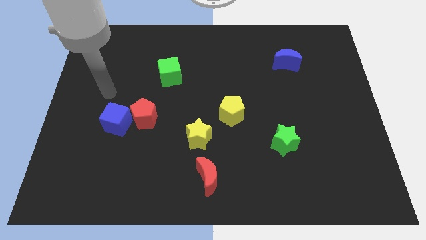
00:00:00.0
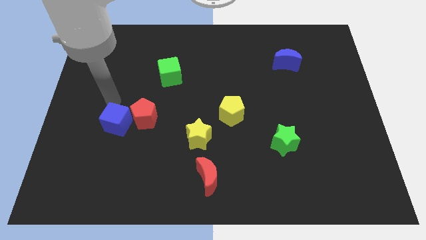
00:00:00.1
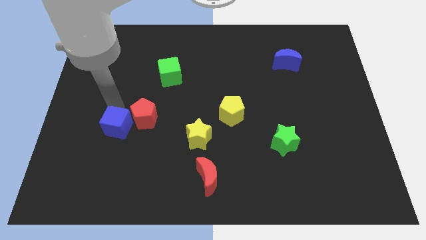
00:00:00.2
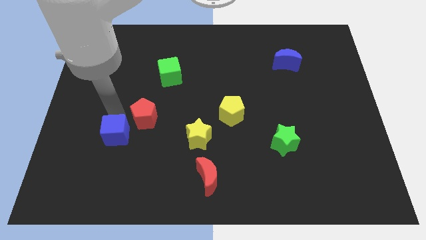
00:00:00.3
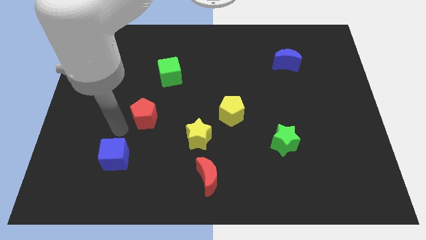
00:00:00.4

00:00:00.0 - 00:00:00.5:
move the red pentagon away from the blue cube

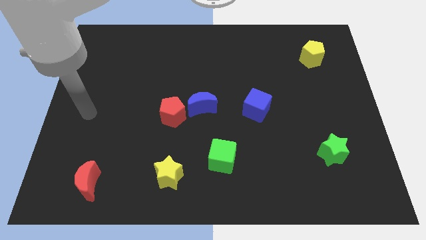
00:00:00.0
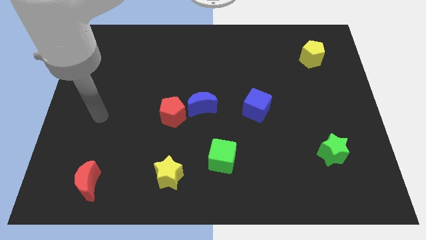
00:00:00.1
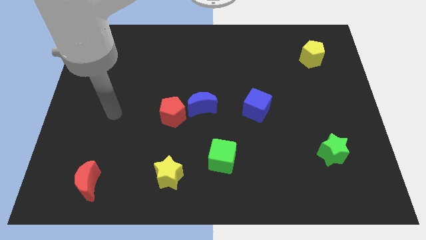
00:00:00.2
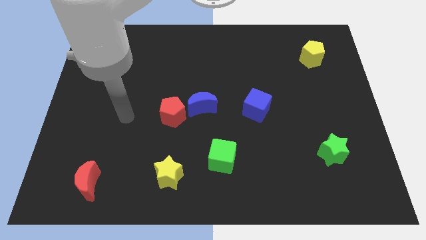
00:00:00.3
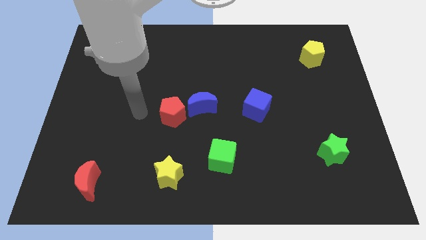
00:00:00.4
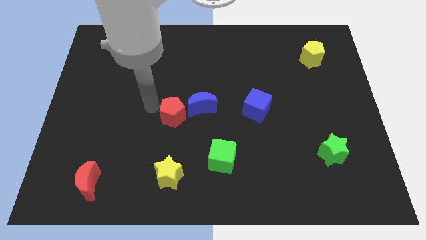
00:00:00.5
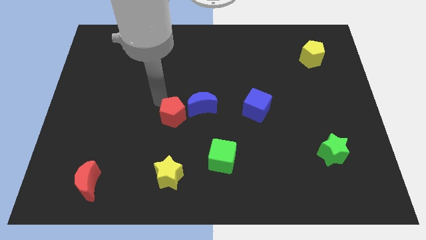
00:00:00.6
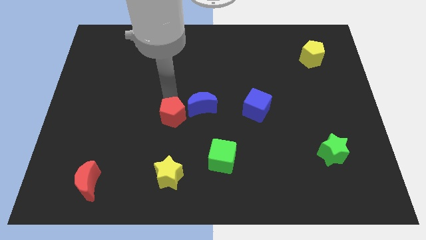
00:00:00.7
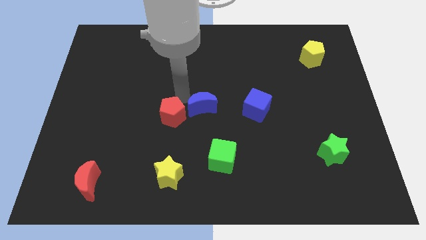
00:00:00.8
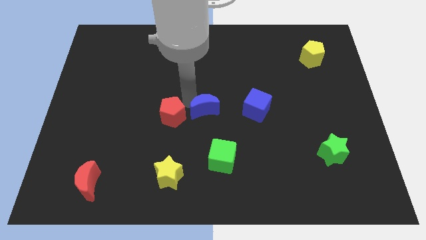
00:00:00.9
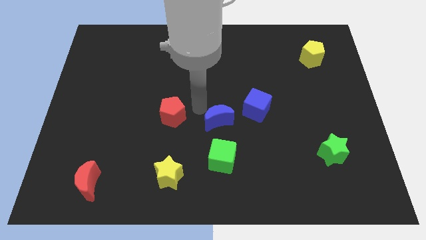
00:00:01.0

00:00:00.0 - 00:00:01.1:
pull the red pentagon apart from the blue moon

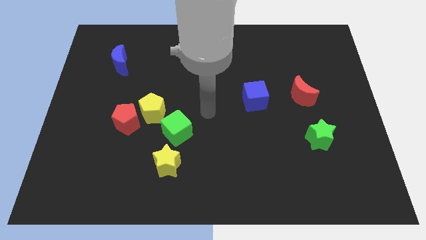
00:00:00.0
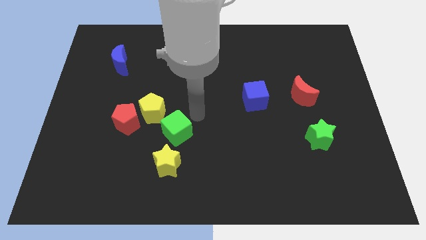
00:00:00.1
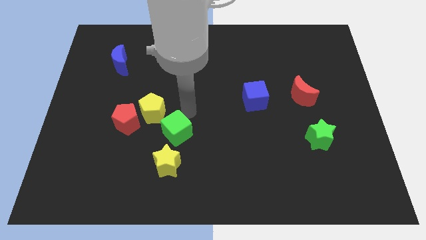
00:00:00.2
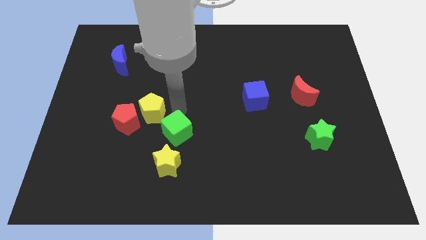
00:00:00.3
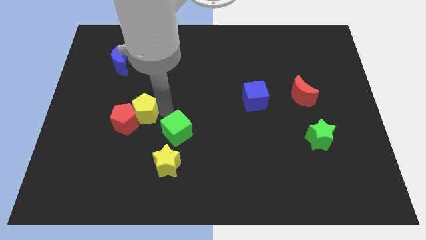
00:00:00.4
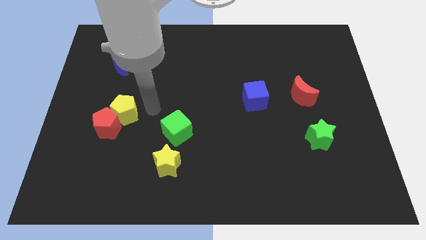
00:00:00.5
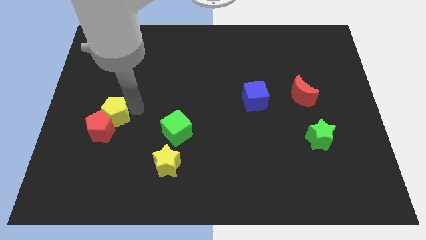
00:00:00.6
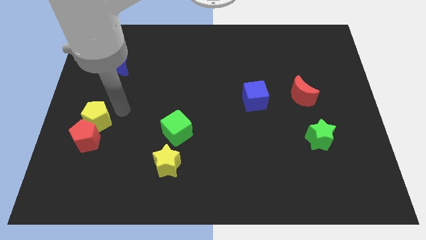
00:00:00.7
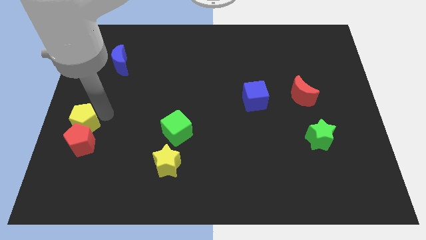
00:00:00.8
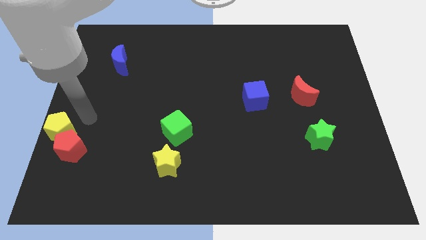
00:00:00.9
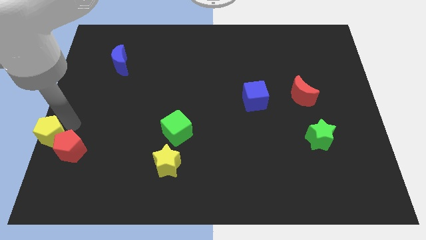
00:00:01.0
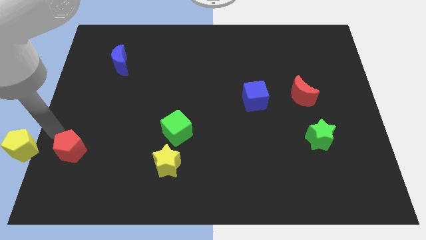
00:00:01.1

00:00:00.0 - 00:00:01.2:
move the red pentagon away from the yellow pentagon

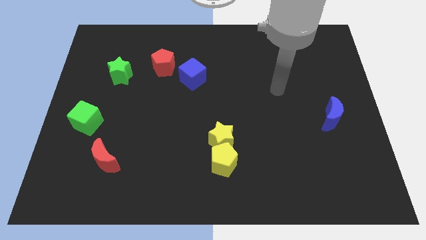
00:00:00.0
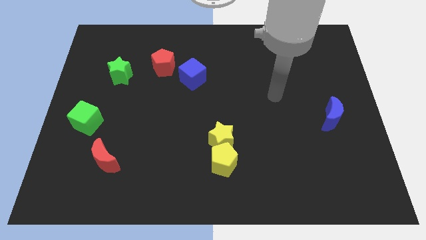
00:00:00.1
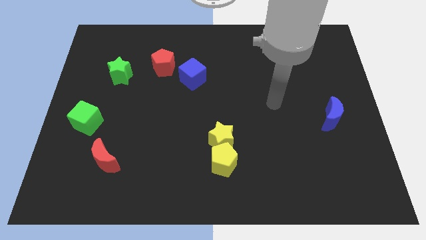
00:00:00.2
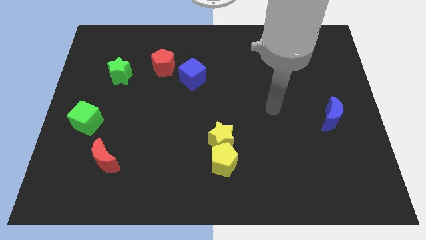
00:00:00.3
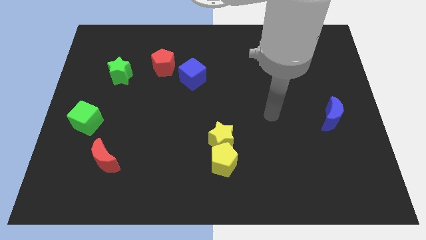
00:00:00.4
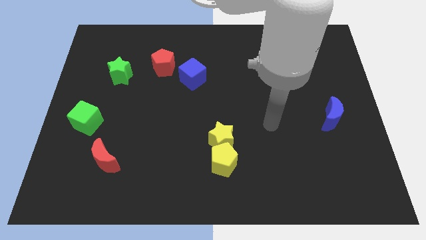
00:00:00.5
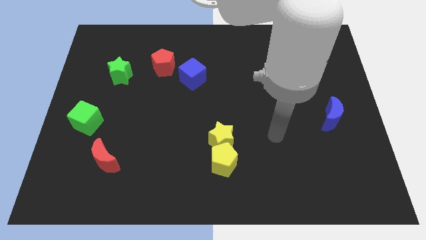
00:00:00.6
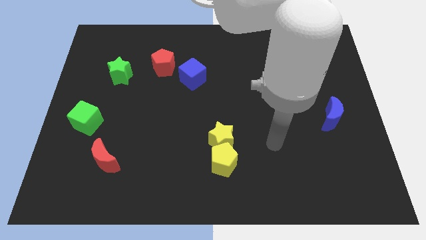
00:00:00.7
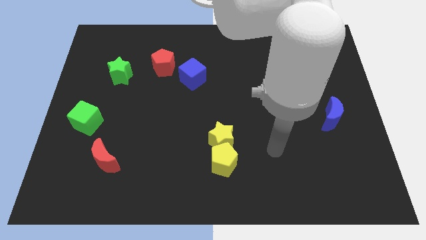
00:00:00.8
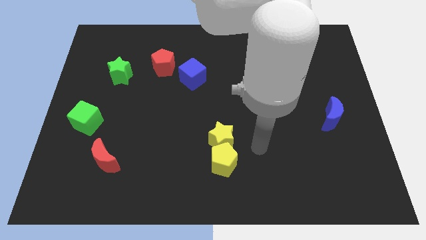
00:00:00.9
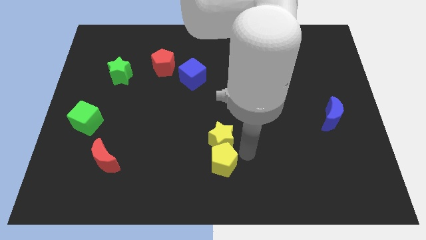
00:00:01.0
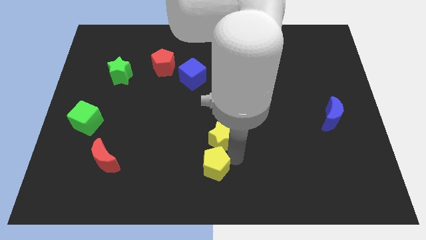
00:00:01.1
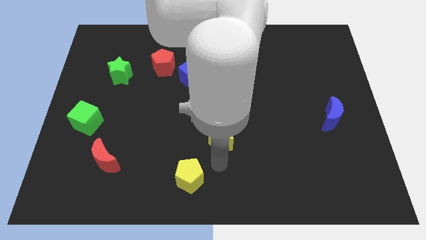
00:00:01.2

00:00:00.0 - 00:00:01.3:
pull the yellow star apart from the yellow pentagon

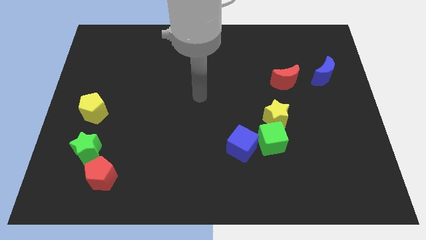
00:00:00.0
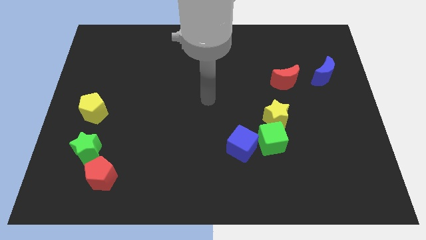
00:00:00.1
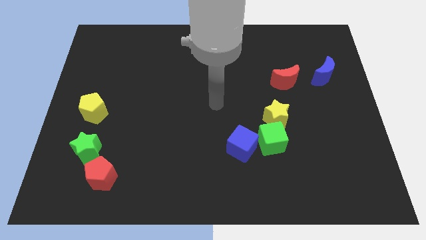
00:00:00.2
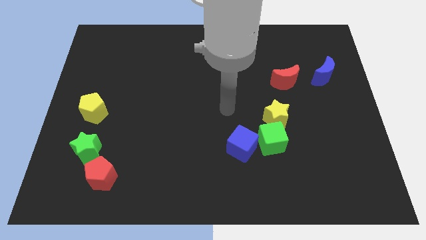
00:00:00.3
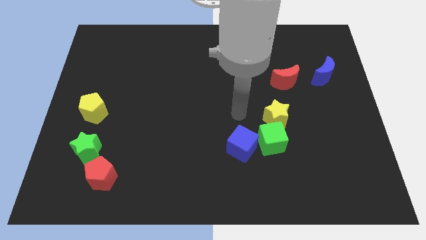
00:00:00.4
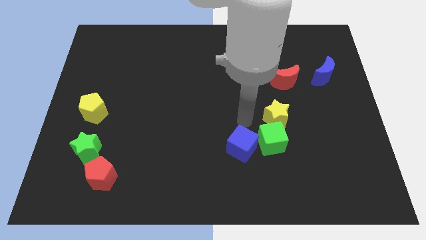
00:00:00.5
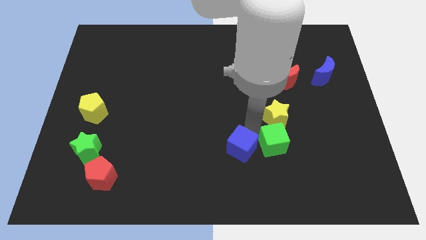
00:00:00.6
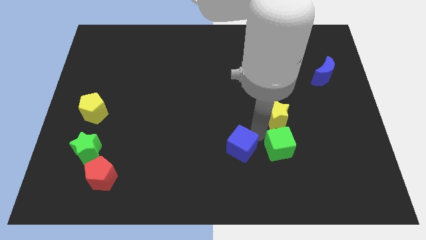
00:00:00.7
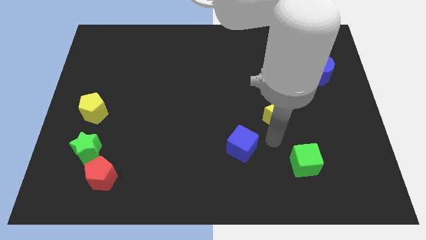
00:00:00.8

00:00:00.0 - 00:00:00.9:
move the yellow star away from the green cube

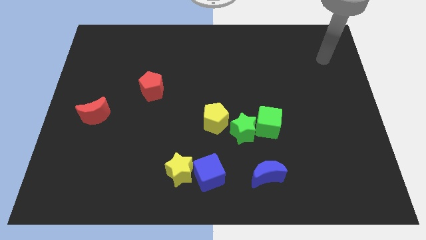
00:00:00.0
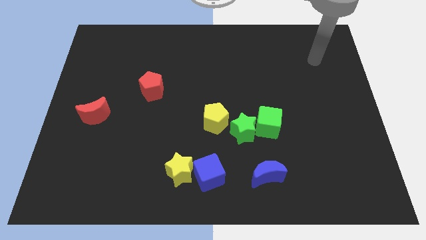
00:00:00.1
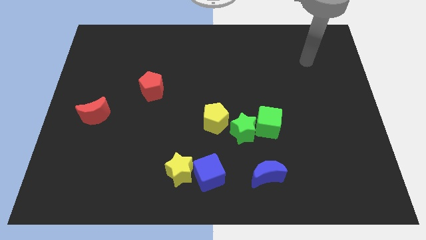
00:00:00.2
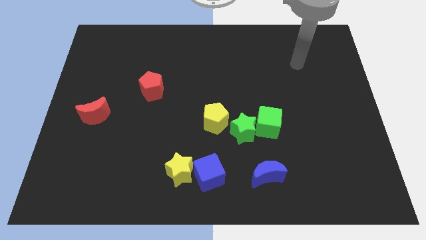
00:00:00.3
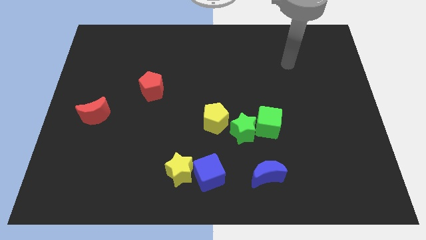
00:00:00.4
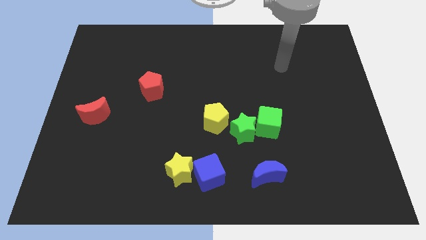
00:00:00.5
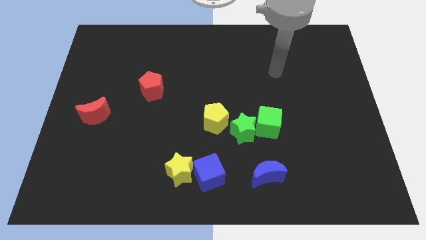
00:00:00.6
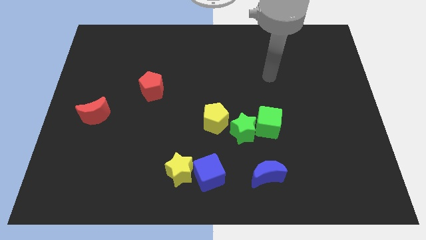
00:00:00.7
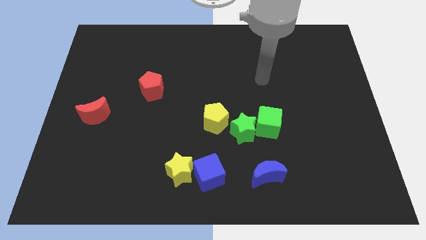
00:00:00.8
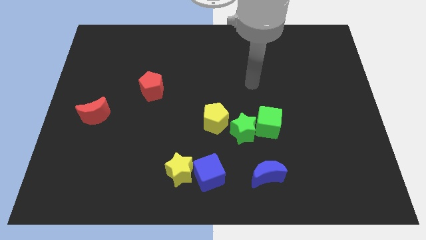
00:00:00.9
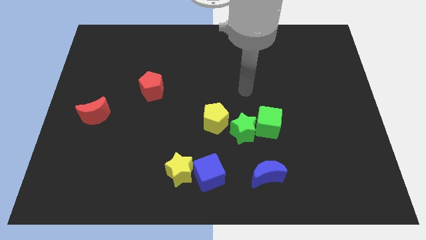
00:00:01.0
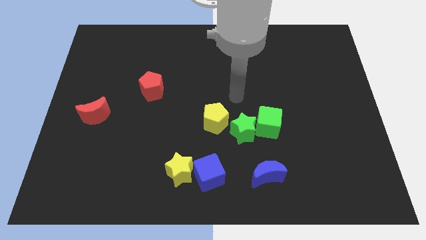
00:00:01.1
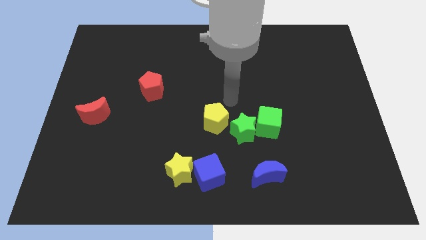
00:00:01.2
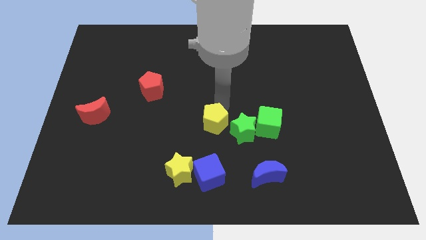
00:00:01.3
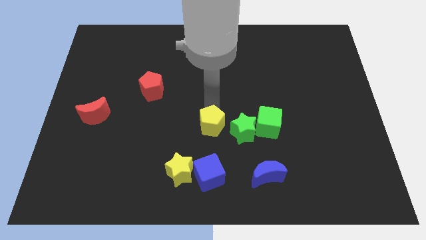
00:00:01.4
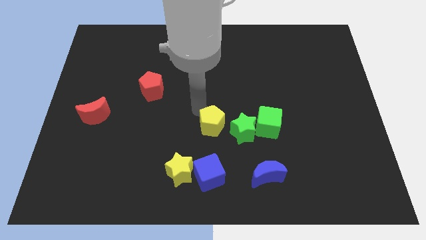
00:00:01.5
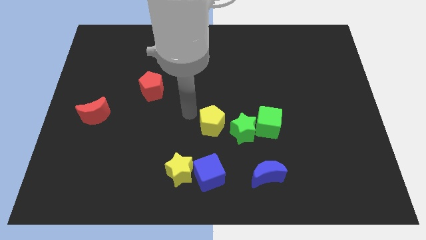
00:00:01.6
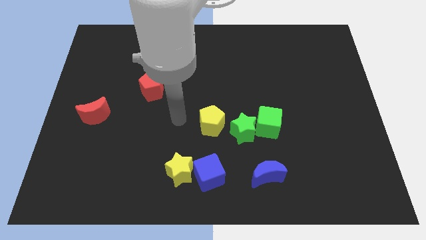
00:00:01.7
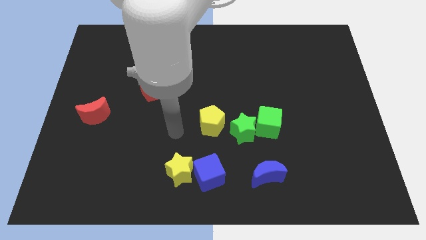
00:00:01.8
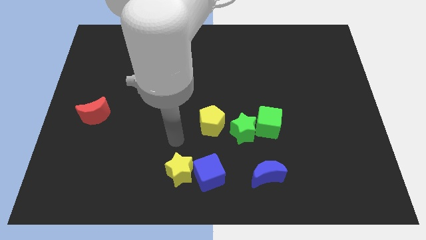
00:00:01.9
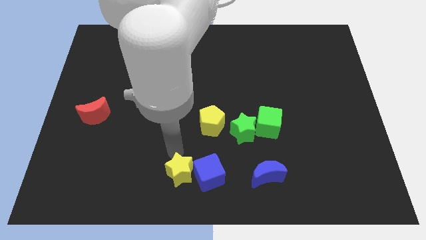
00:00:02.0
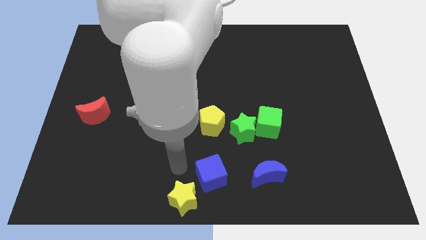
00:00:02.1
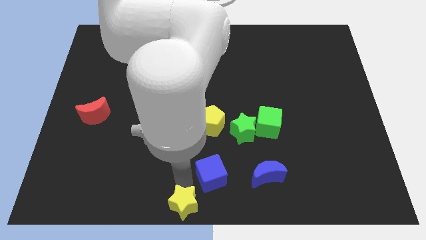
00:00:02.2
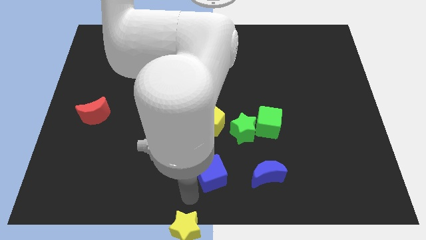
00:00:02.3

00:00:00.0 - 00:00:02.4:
pull the blue cube apart from the yellow star

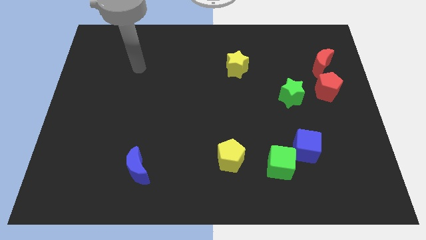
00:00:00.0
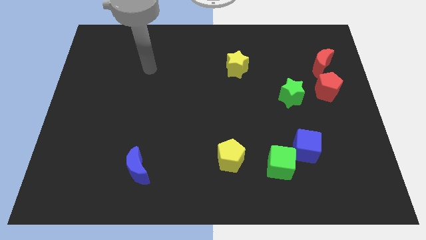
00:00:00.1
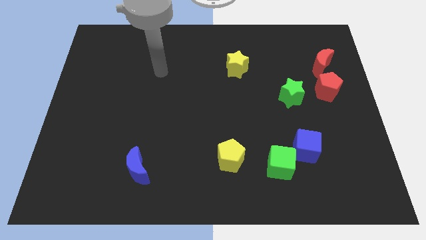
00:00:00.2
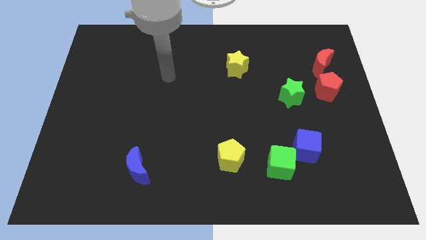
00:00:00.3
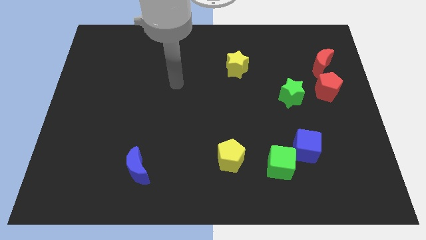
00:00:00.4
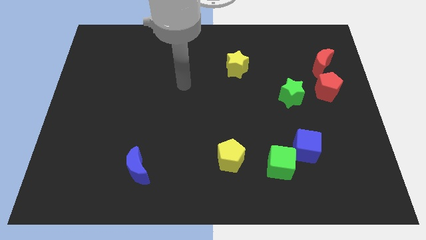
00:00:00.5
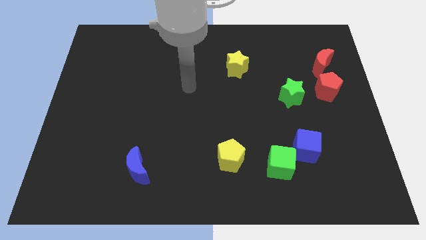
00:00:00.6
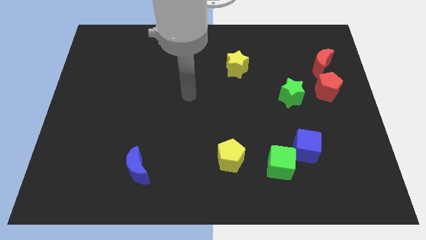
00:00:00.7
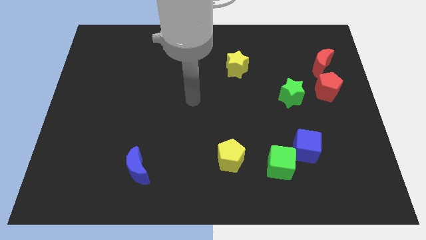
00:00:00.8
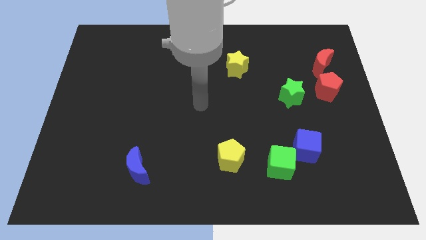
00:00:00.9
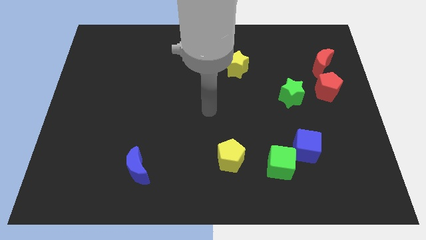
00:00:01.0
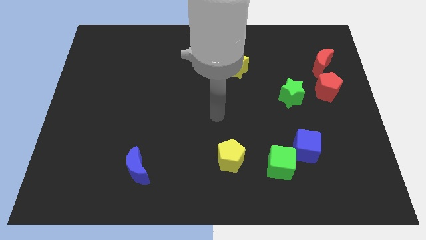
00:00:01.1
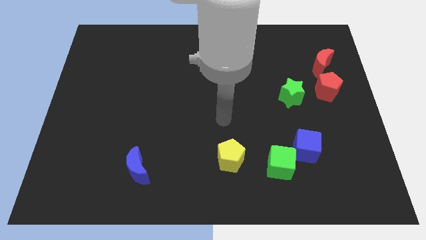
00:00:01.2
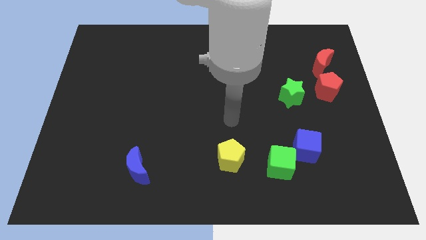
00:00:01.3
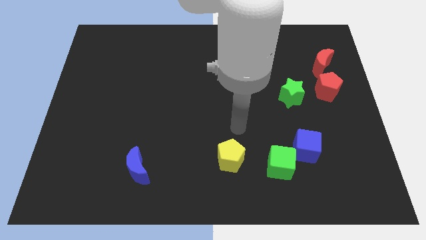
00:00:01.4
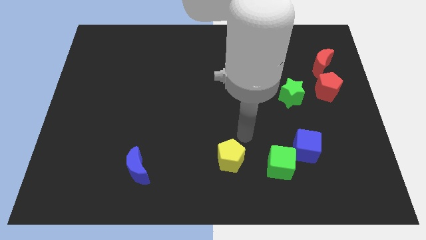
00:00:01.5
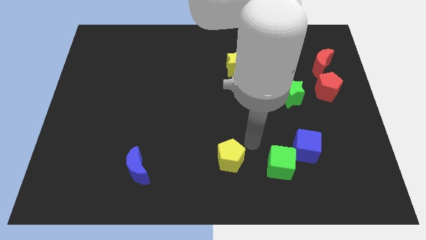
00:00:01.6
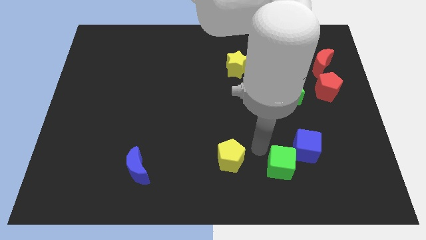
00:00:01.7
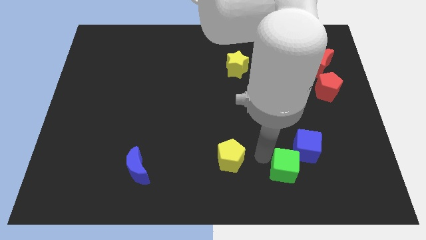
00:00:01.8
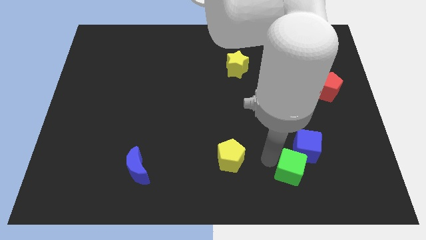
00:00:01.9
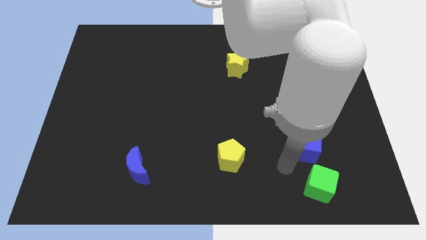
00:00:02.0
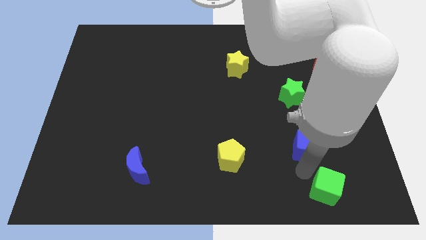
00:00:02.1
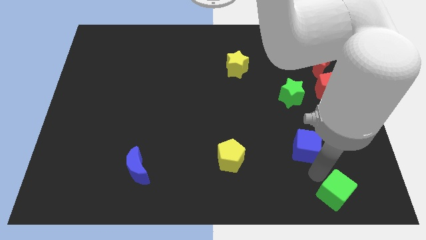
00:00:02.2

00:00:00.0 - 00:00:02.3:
separate the blue cube from the green cube
